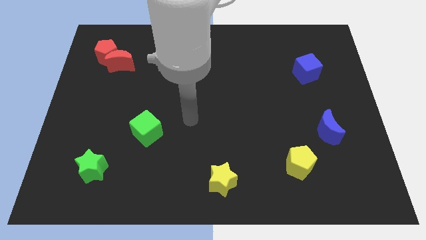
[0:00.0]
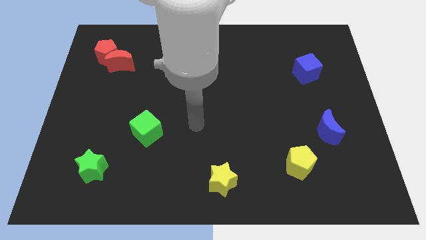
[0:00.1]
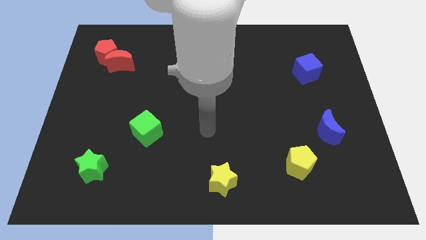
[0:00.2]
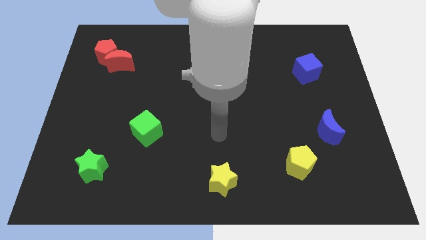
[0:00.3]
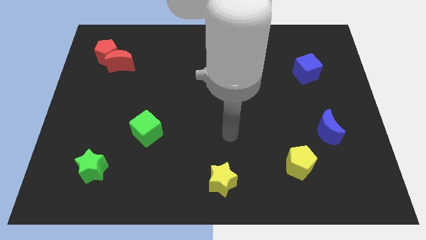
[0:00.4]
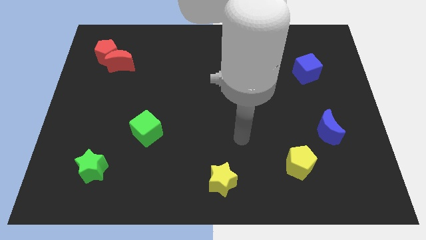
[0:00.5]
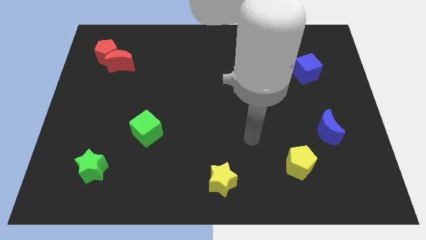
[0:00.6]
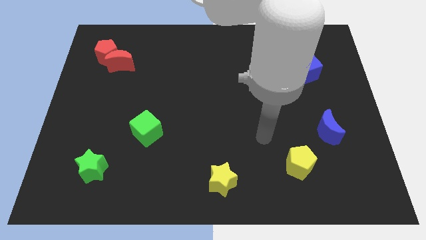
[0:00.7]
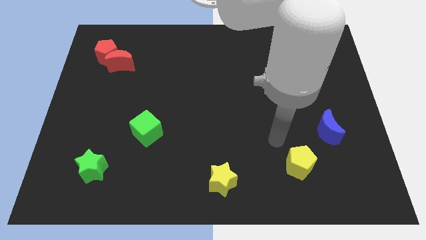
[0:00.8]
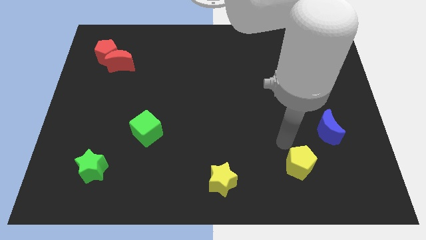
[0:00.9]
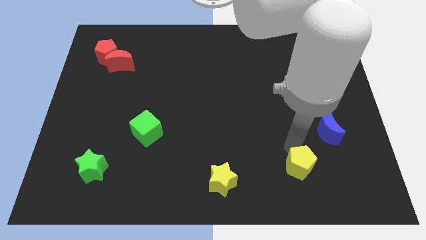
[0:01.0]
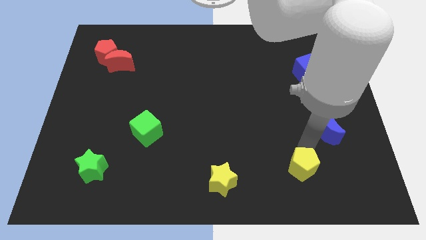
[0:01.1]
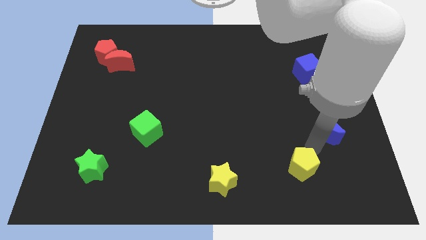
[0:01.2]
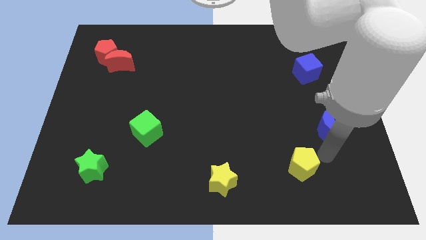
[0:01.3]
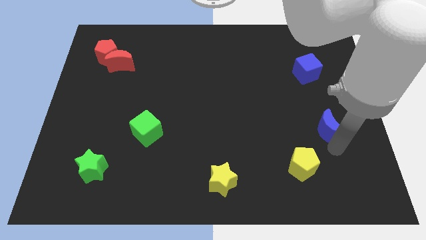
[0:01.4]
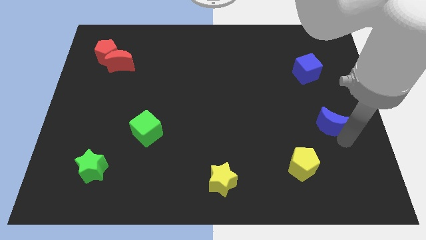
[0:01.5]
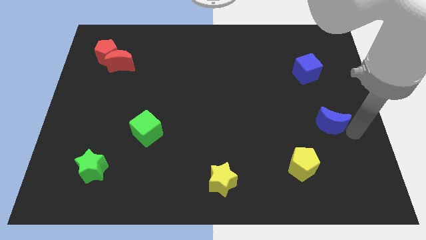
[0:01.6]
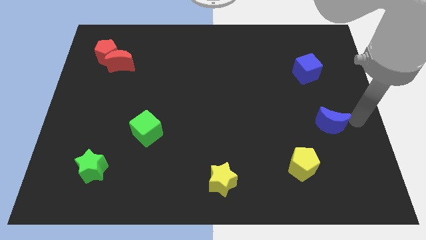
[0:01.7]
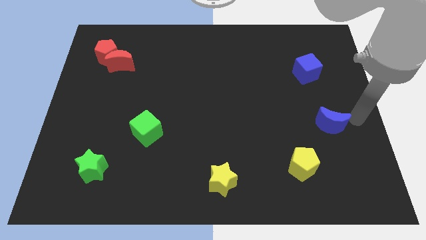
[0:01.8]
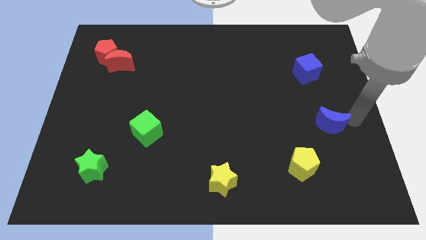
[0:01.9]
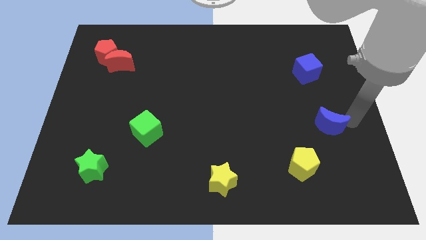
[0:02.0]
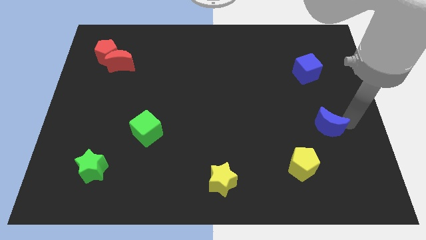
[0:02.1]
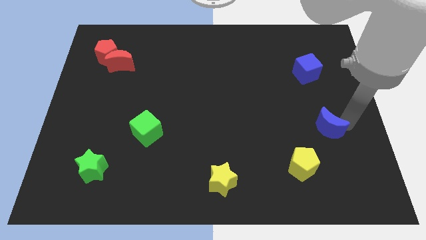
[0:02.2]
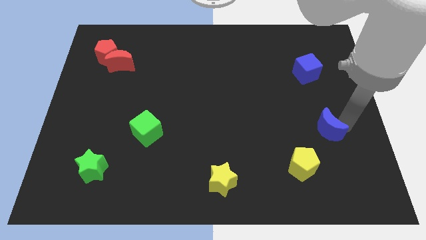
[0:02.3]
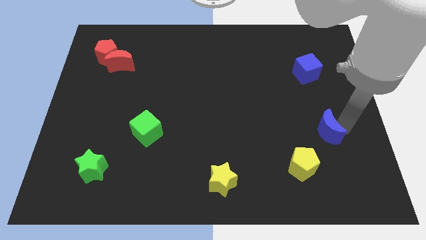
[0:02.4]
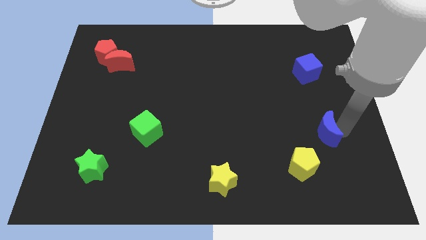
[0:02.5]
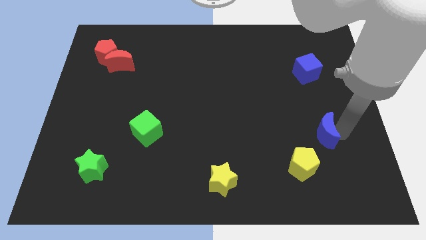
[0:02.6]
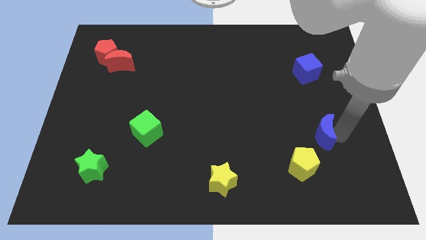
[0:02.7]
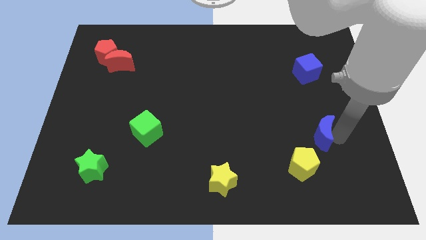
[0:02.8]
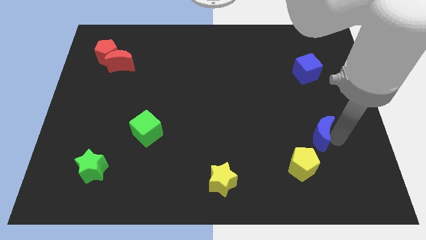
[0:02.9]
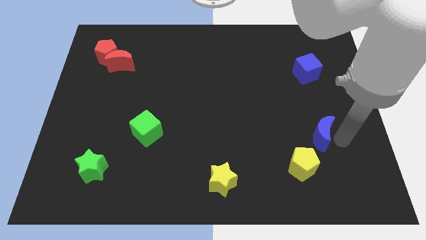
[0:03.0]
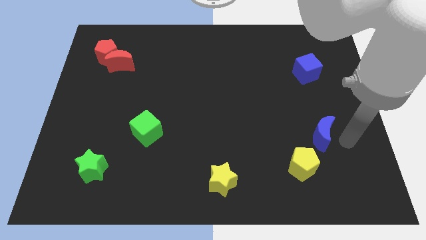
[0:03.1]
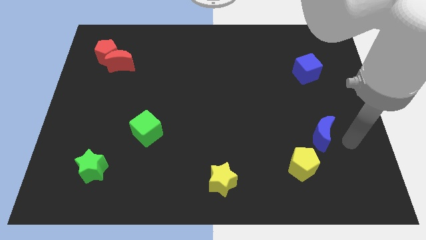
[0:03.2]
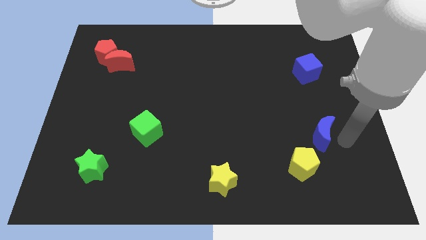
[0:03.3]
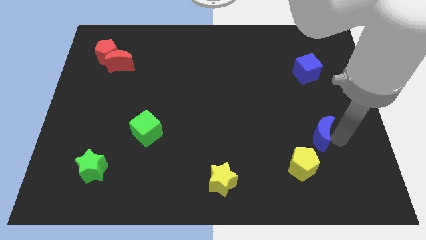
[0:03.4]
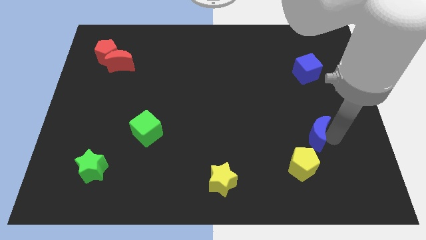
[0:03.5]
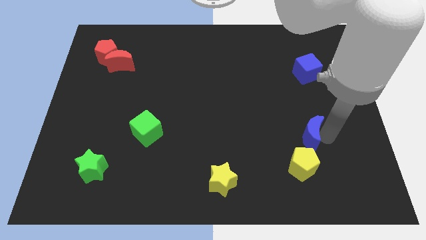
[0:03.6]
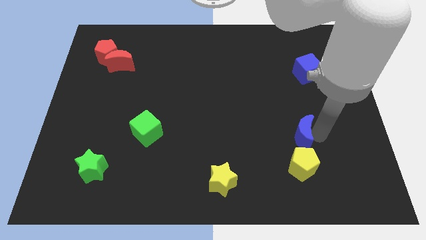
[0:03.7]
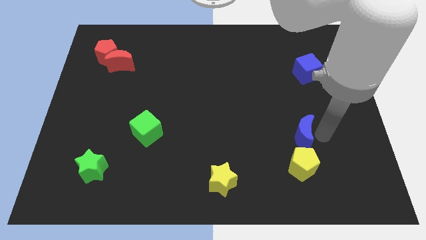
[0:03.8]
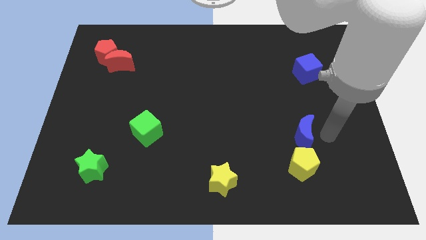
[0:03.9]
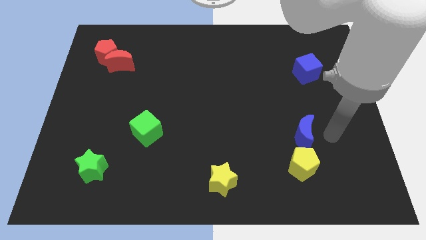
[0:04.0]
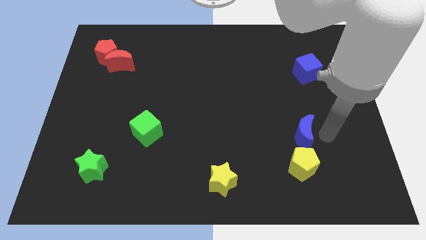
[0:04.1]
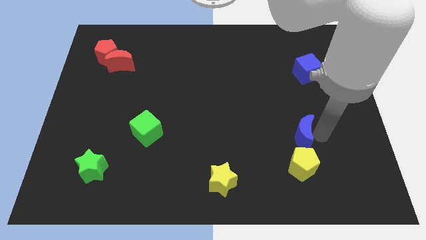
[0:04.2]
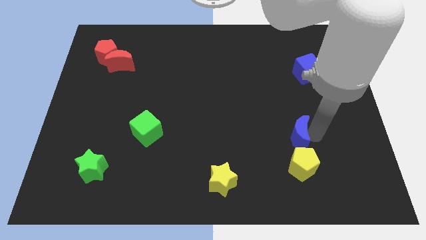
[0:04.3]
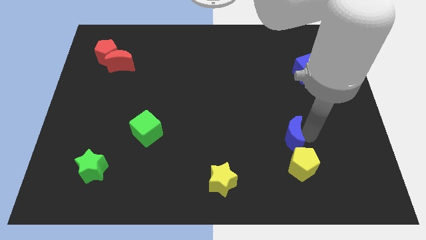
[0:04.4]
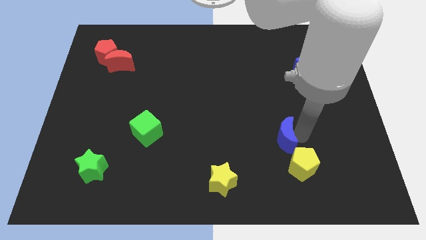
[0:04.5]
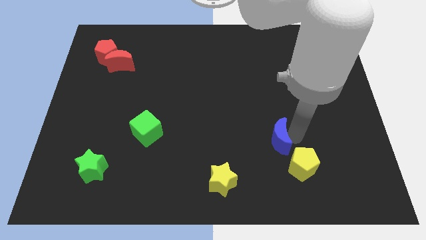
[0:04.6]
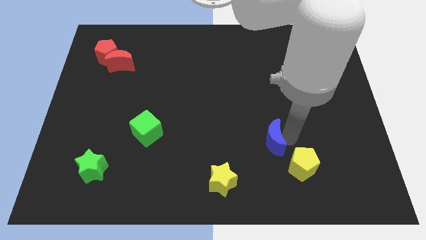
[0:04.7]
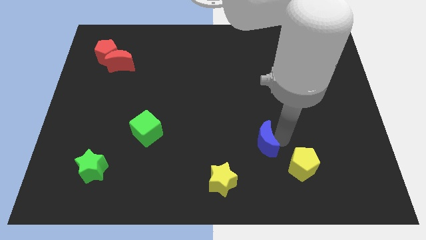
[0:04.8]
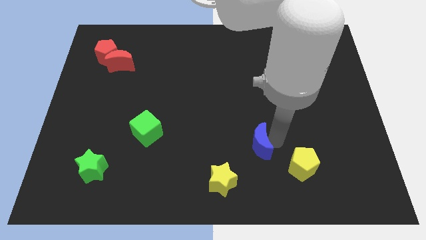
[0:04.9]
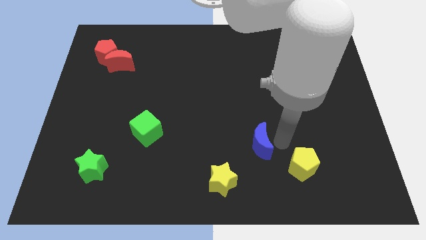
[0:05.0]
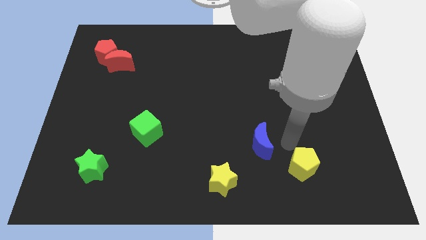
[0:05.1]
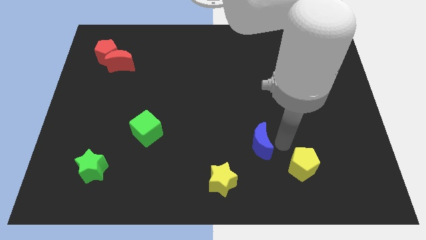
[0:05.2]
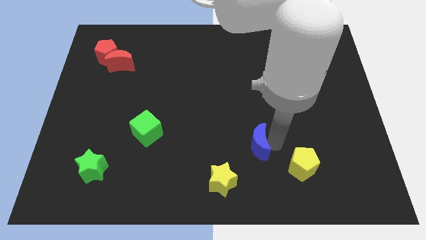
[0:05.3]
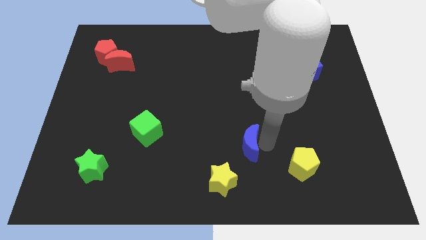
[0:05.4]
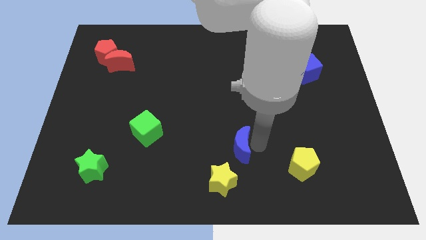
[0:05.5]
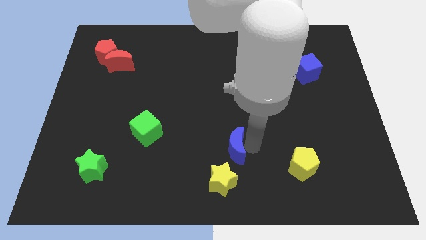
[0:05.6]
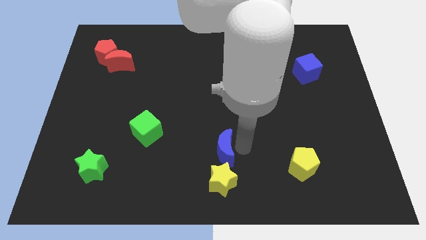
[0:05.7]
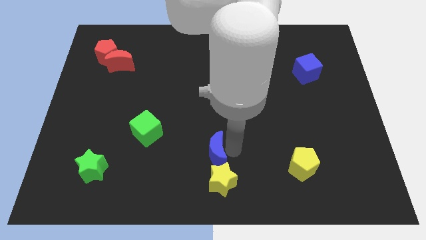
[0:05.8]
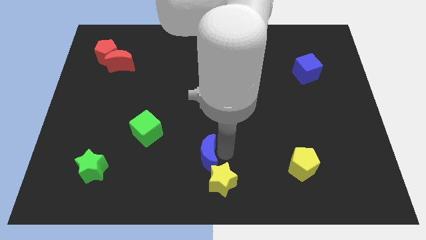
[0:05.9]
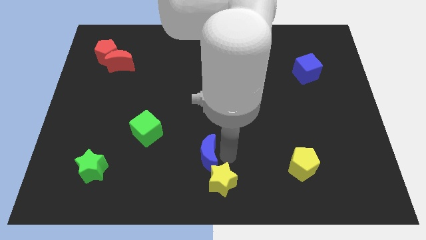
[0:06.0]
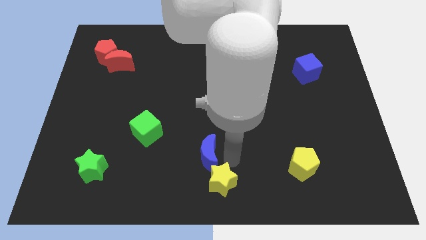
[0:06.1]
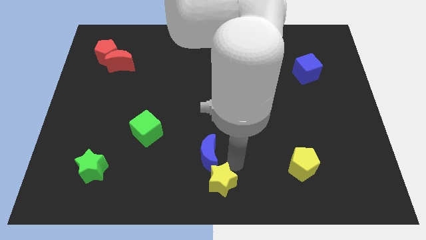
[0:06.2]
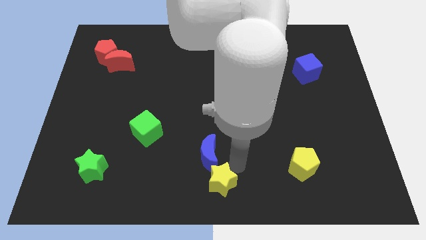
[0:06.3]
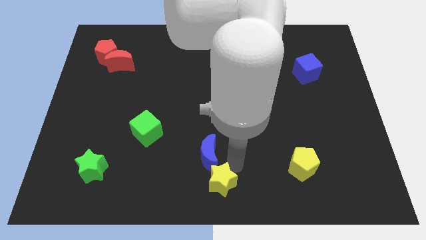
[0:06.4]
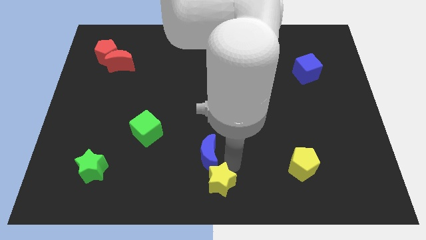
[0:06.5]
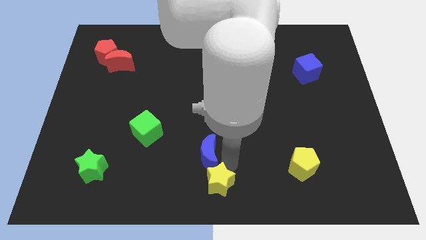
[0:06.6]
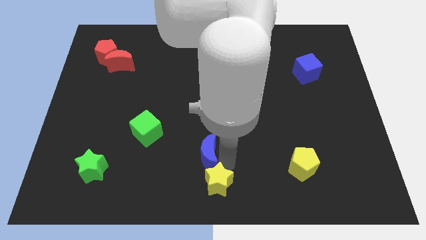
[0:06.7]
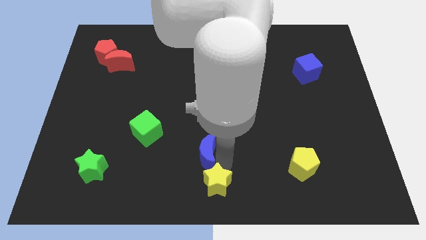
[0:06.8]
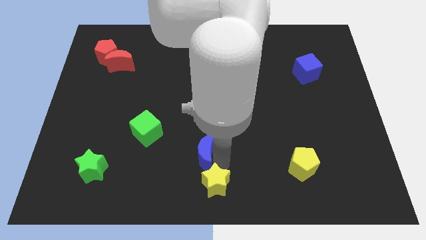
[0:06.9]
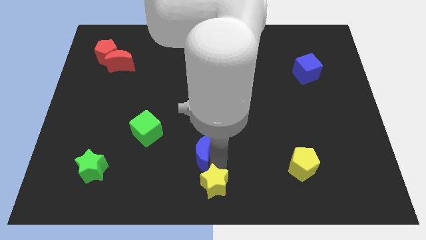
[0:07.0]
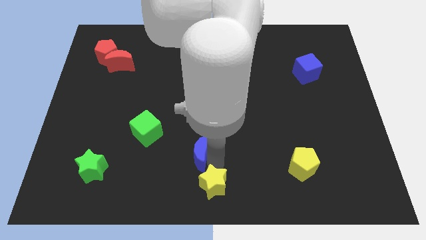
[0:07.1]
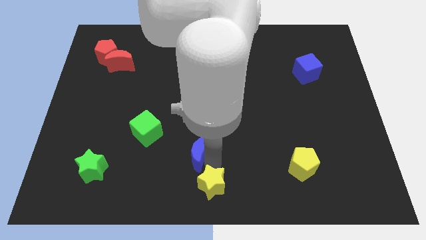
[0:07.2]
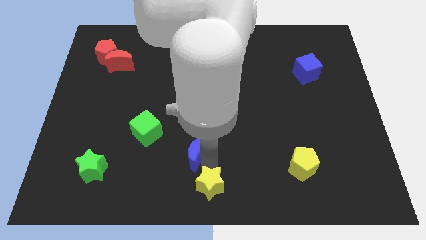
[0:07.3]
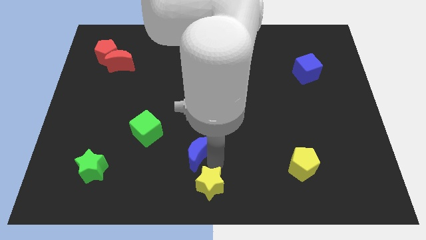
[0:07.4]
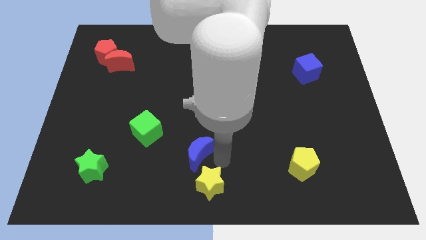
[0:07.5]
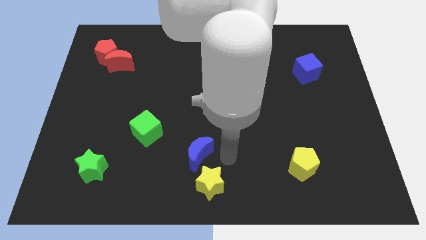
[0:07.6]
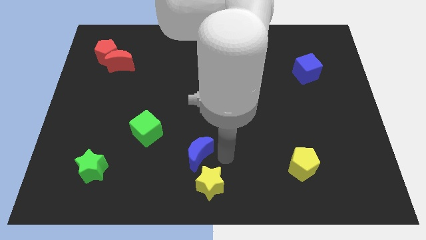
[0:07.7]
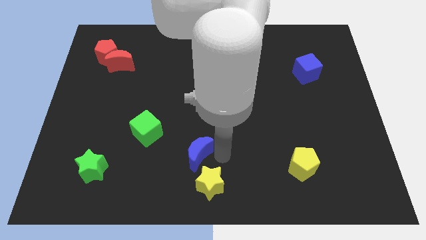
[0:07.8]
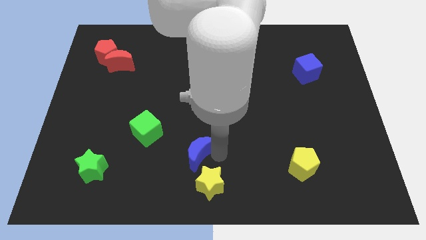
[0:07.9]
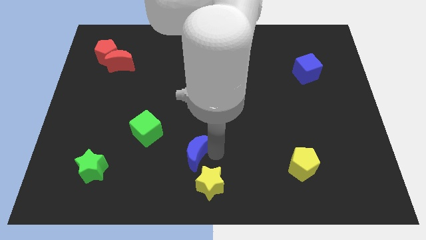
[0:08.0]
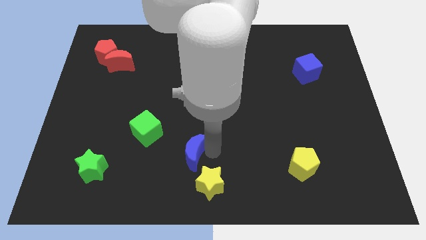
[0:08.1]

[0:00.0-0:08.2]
move the blue moon to the bottom right of the green cube
